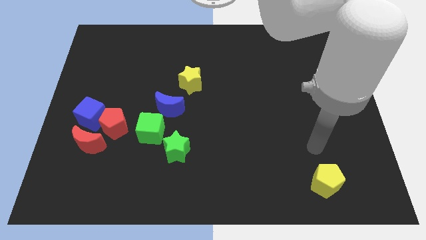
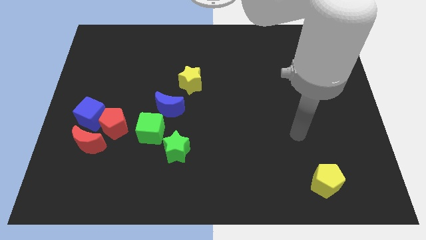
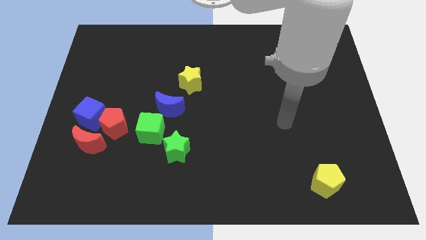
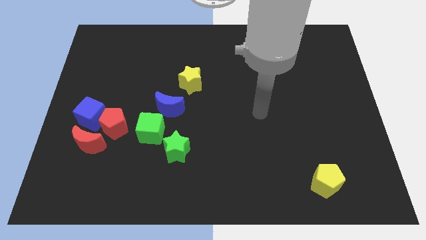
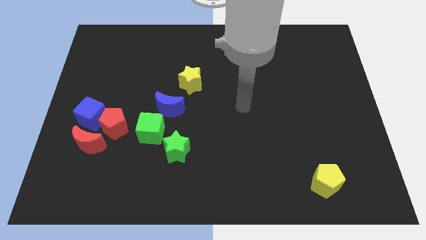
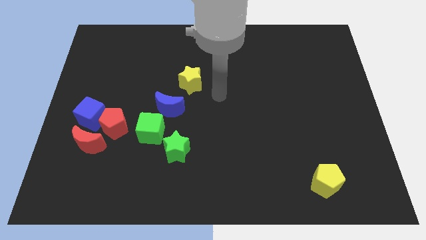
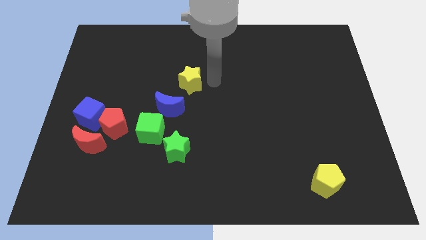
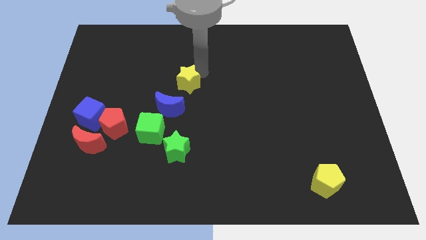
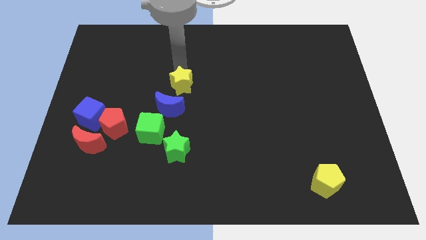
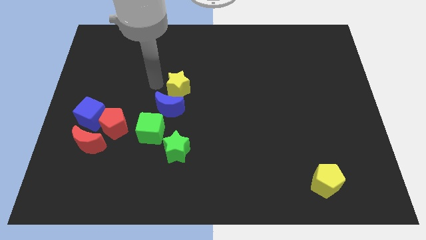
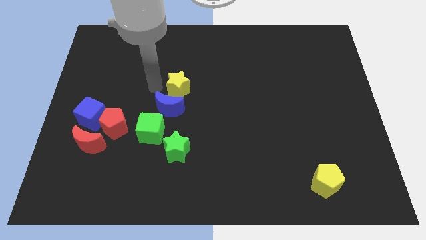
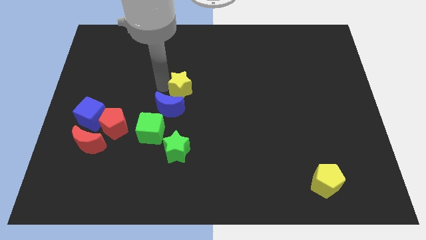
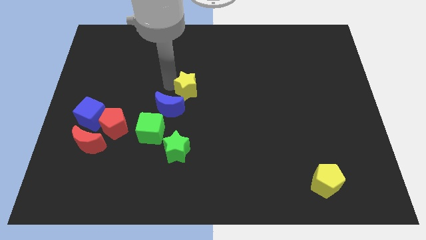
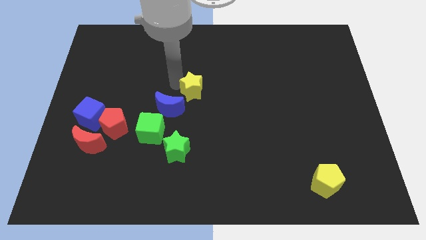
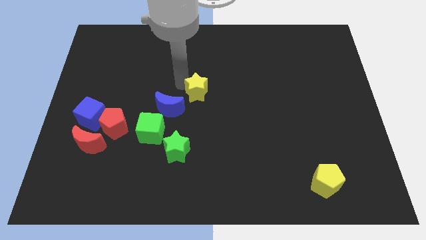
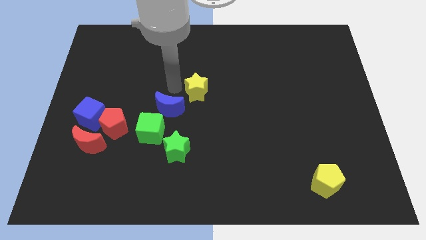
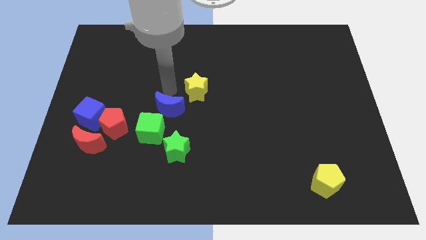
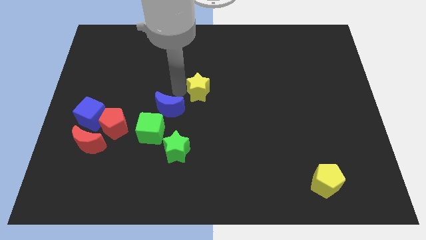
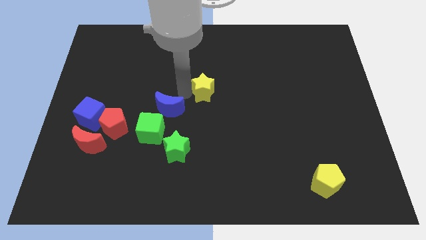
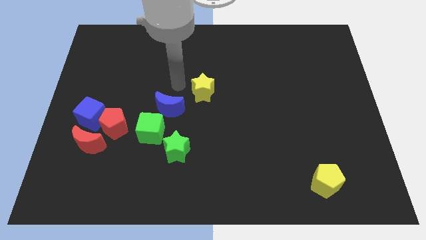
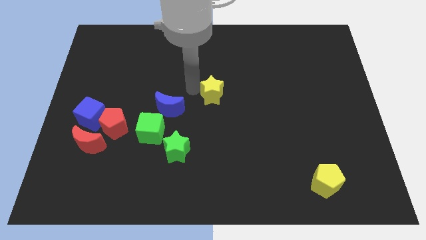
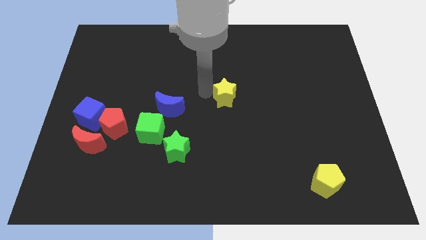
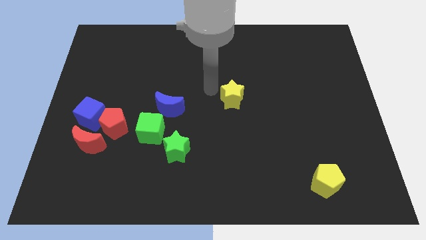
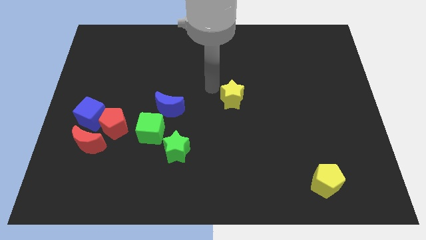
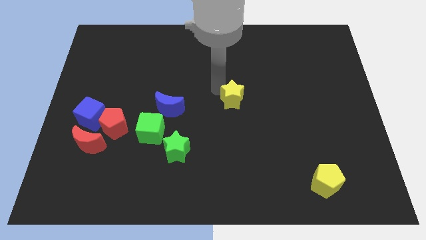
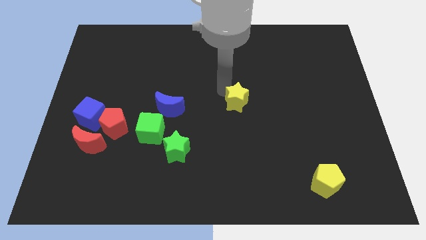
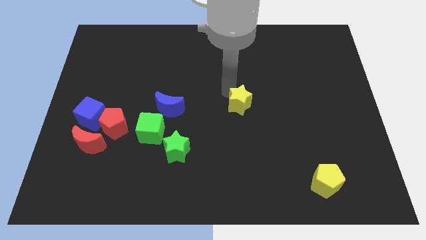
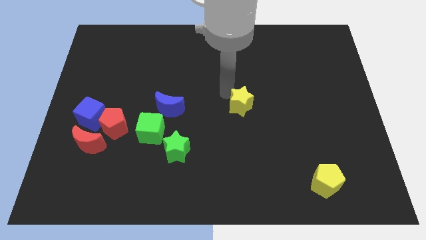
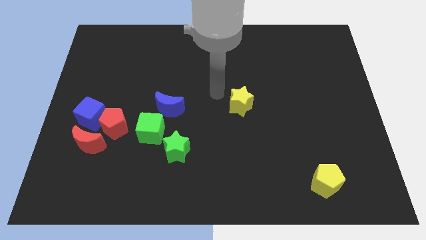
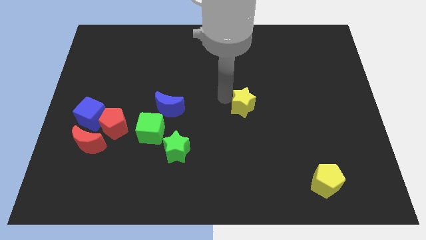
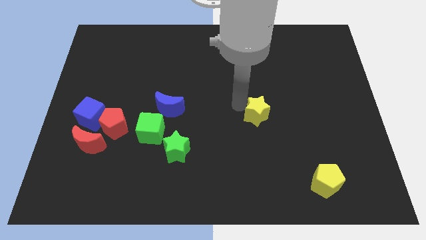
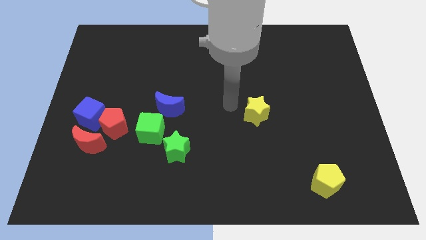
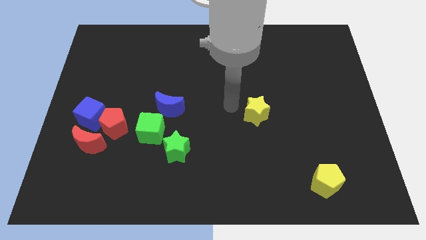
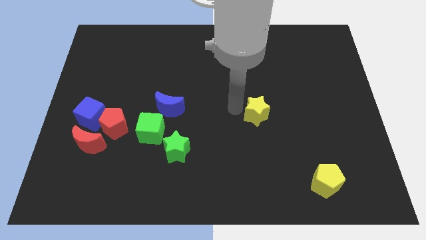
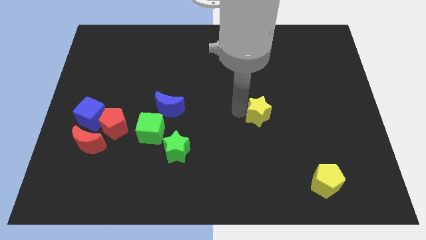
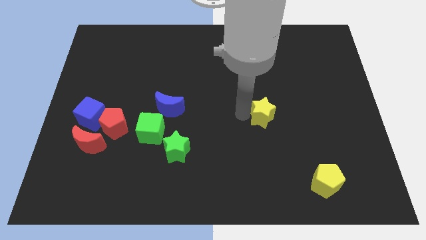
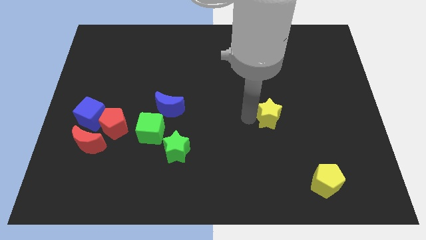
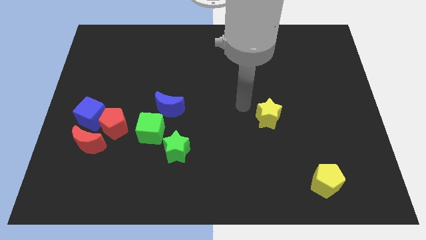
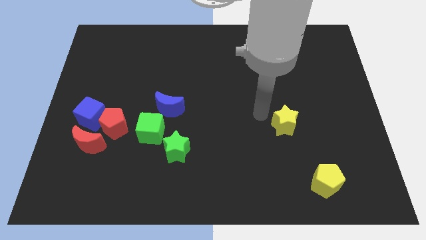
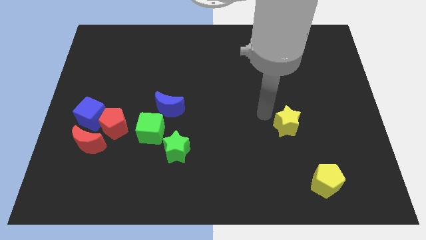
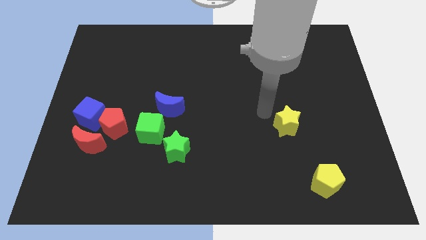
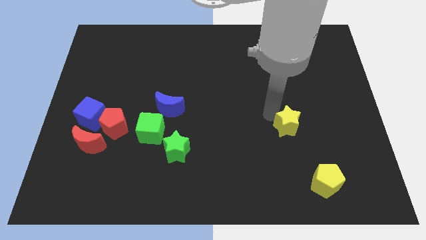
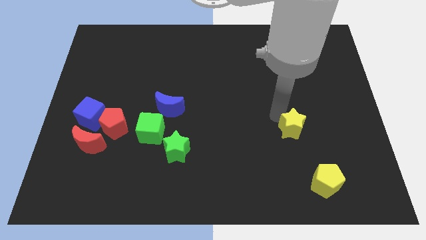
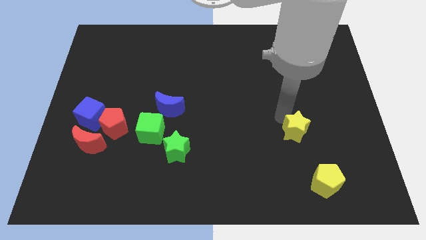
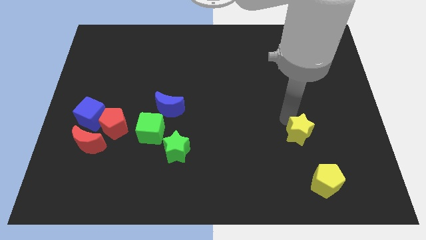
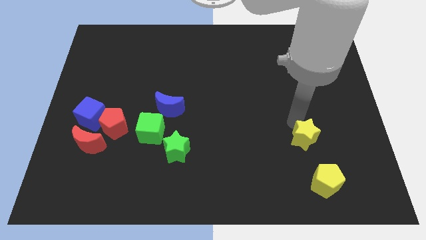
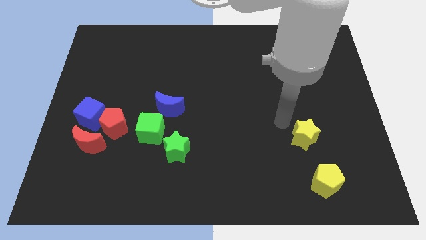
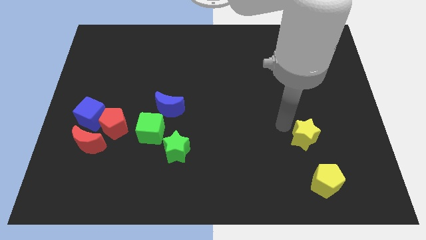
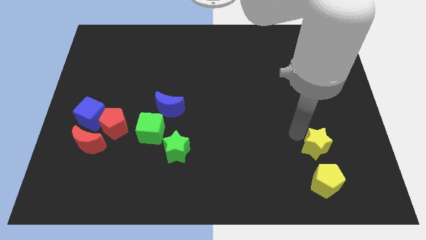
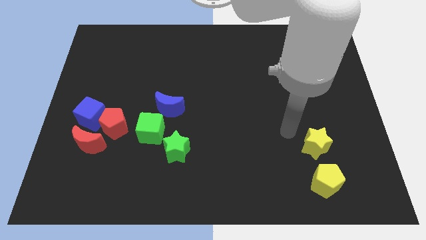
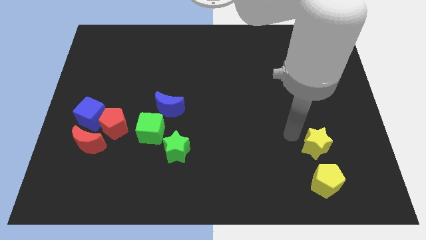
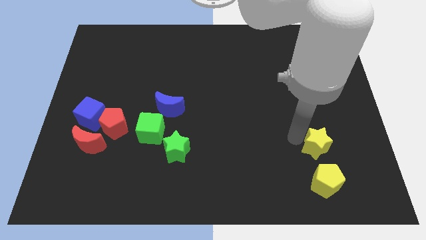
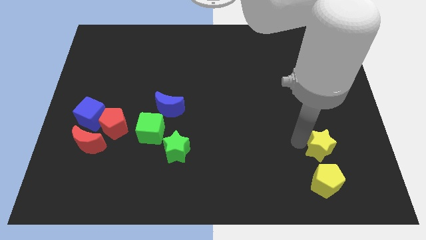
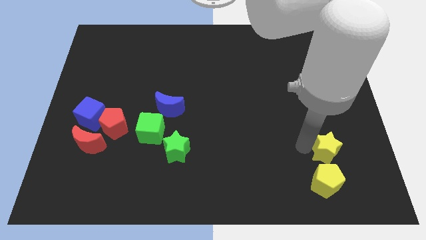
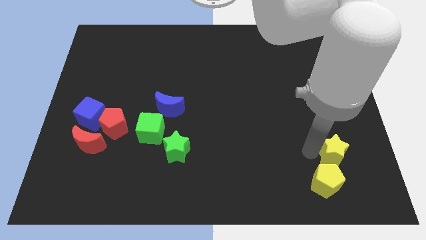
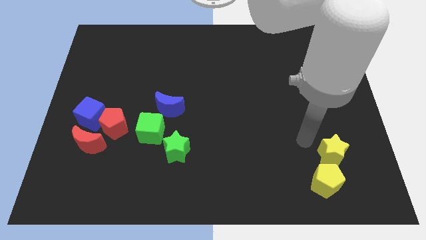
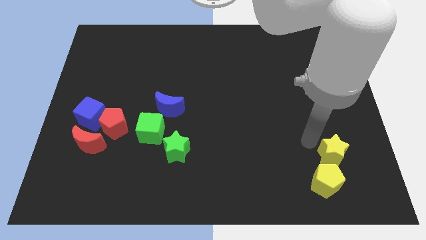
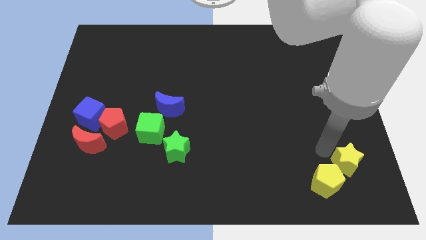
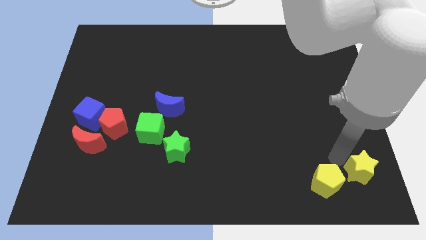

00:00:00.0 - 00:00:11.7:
move the yellow star to the bottom right
